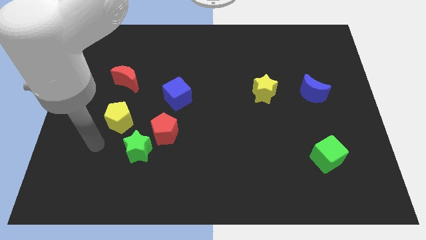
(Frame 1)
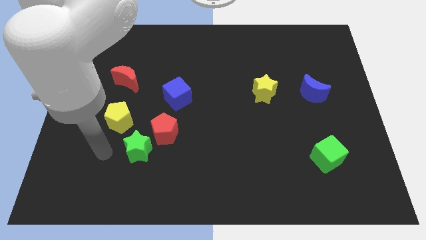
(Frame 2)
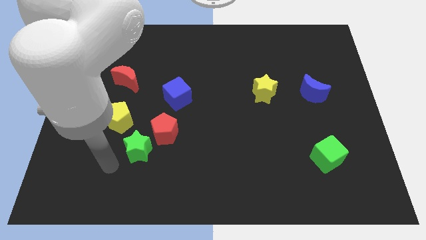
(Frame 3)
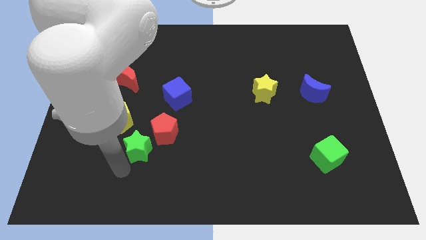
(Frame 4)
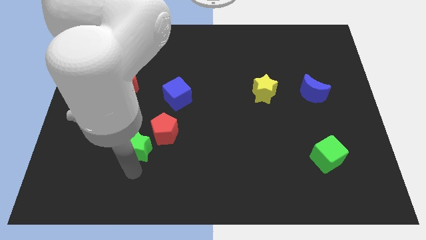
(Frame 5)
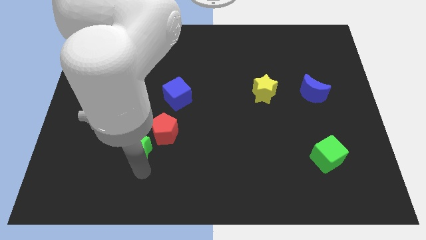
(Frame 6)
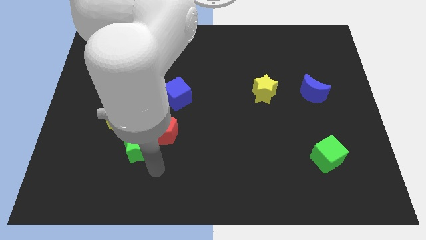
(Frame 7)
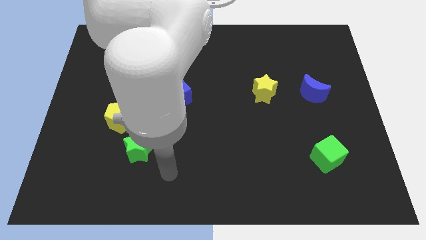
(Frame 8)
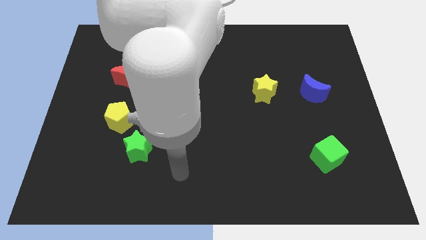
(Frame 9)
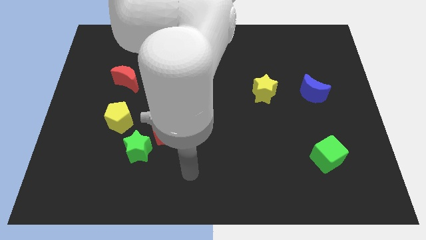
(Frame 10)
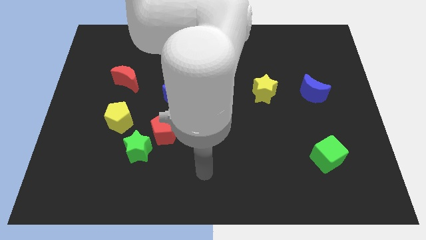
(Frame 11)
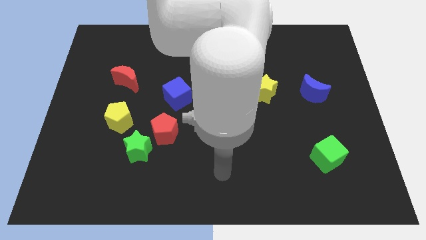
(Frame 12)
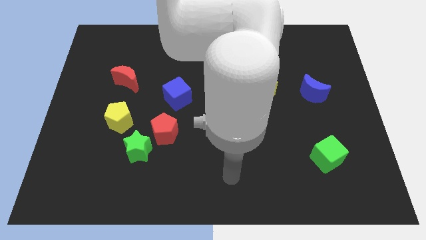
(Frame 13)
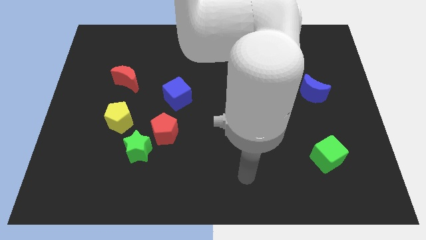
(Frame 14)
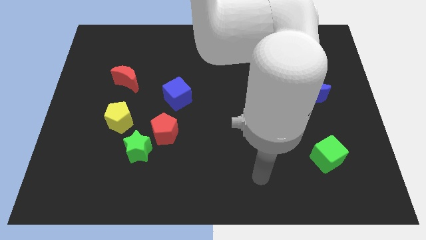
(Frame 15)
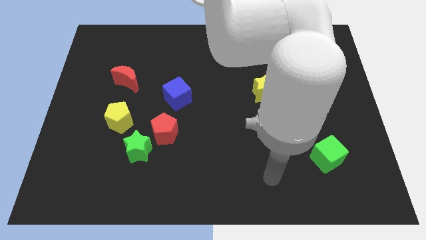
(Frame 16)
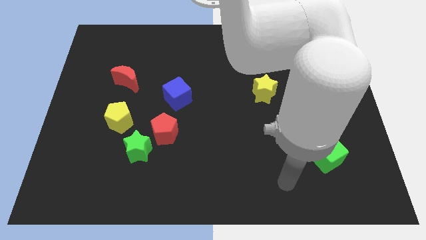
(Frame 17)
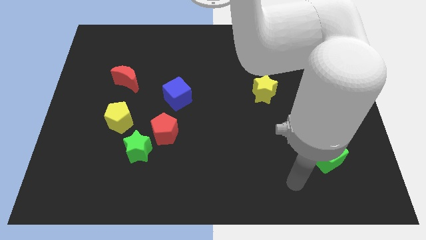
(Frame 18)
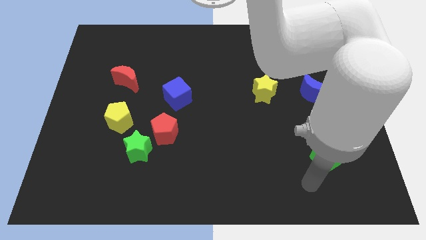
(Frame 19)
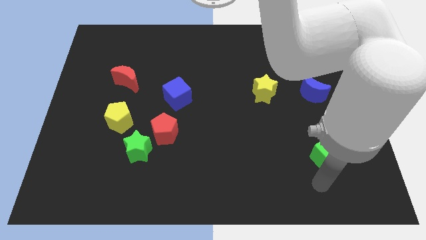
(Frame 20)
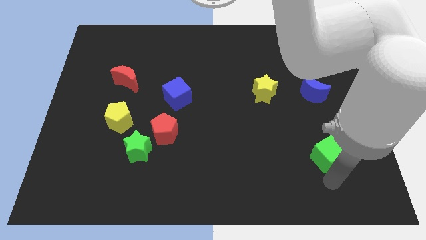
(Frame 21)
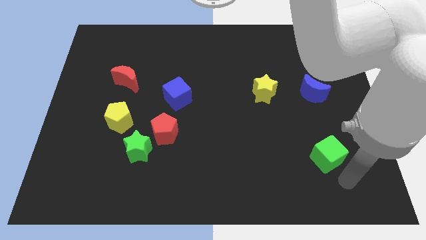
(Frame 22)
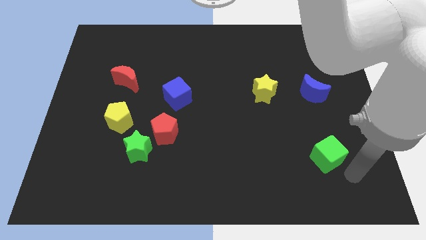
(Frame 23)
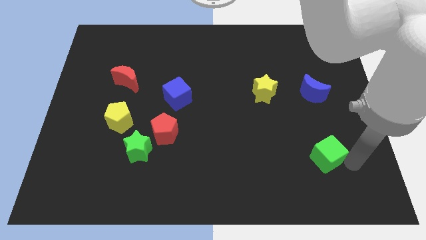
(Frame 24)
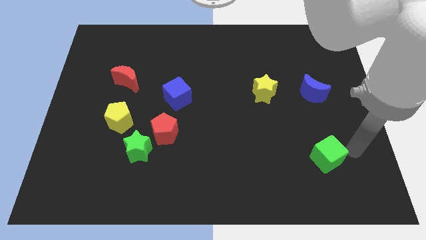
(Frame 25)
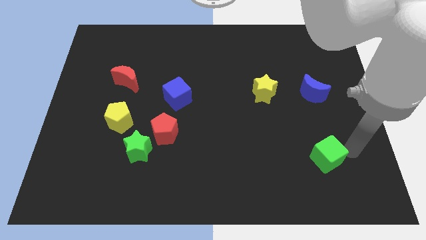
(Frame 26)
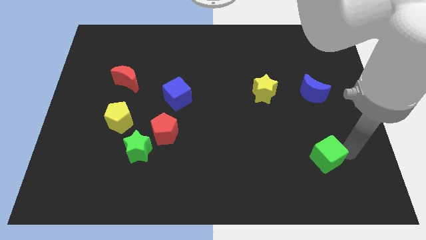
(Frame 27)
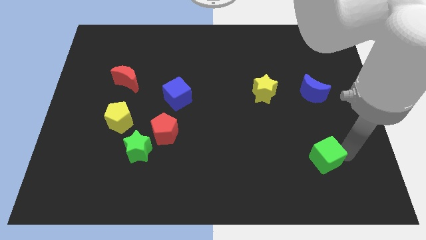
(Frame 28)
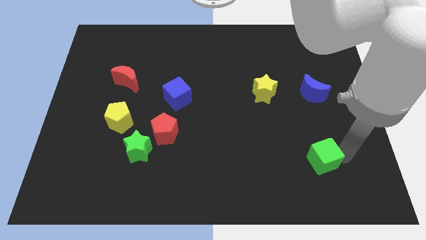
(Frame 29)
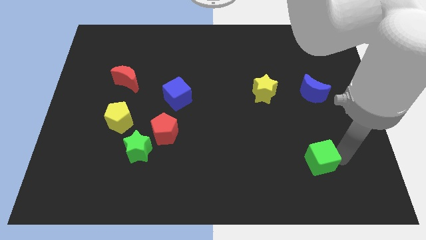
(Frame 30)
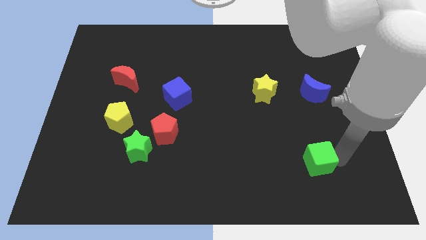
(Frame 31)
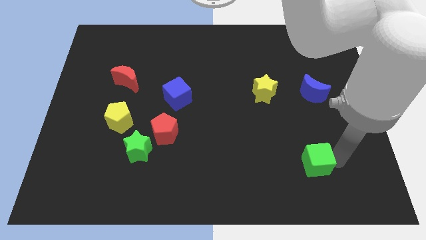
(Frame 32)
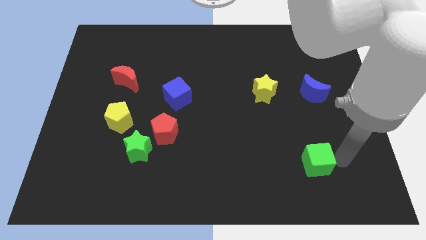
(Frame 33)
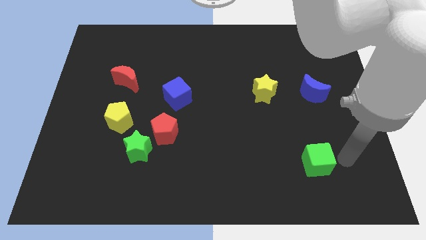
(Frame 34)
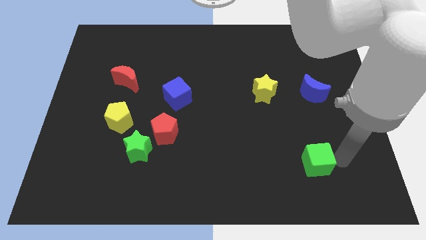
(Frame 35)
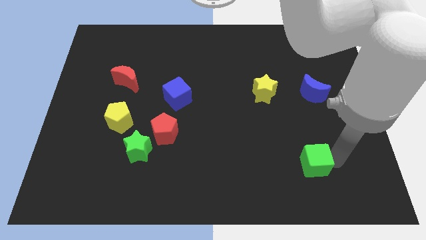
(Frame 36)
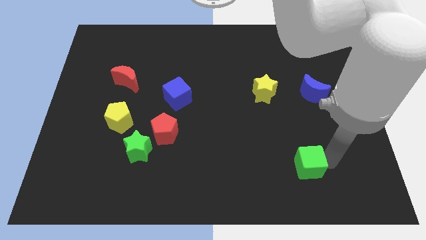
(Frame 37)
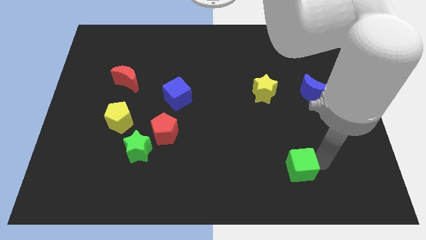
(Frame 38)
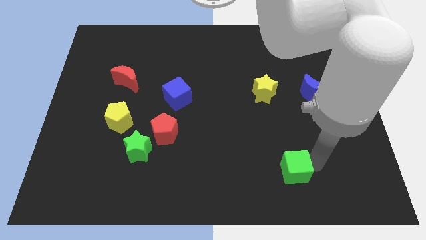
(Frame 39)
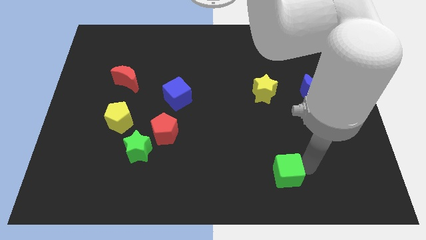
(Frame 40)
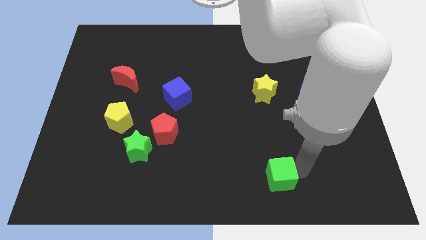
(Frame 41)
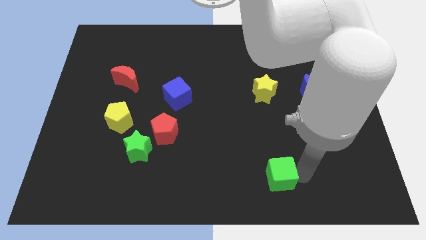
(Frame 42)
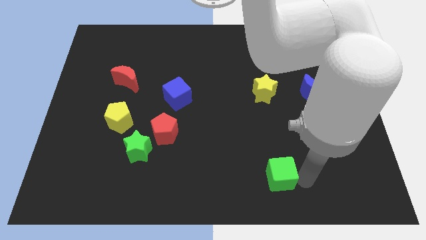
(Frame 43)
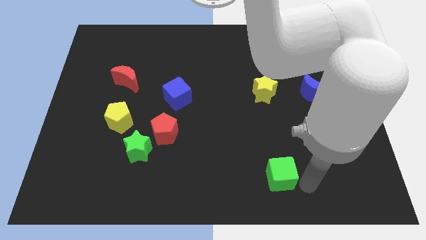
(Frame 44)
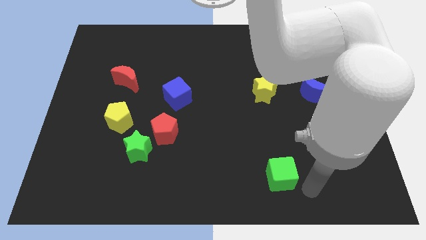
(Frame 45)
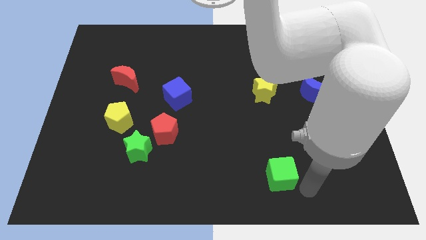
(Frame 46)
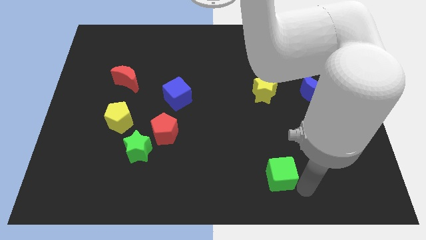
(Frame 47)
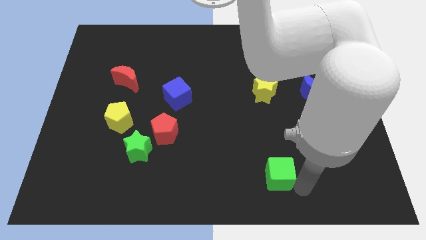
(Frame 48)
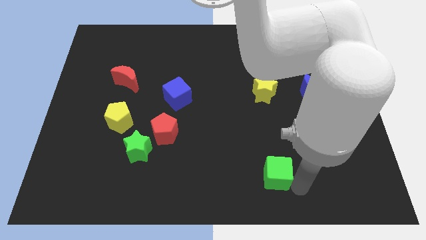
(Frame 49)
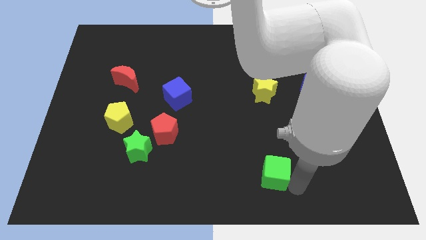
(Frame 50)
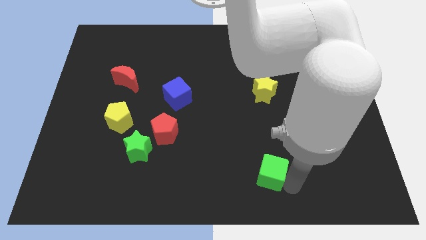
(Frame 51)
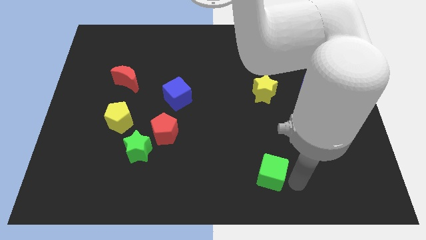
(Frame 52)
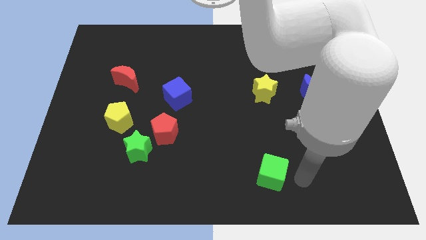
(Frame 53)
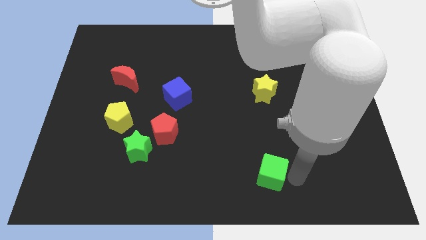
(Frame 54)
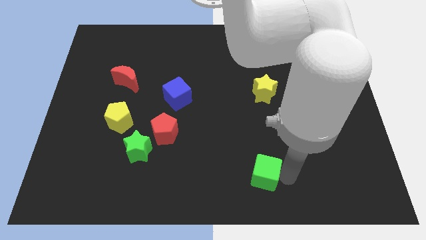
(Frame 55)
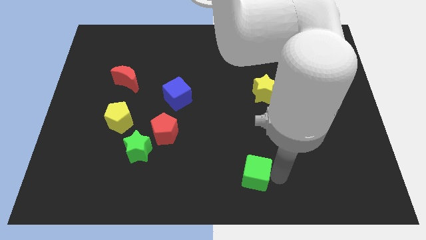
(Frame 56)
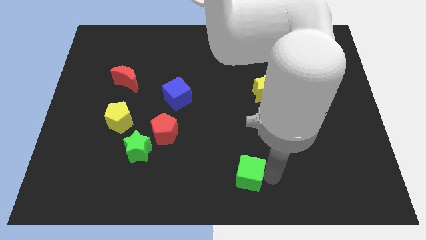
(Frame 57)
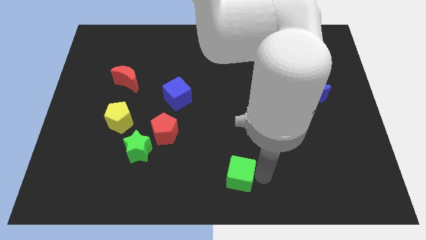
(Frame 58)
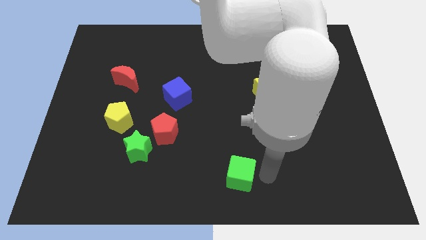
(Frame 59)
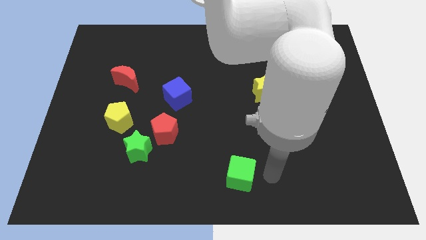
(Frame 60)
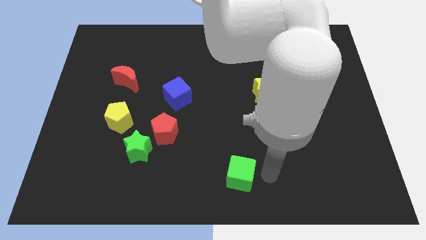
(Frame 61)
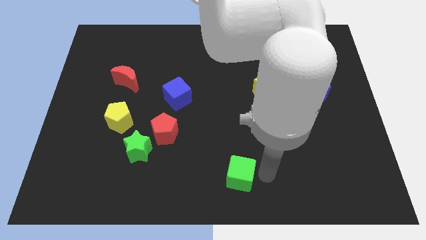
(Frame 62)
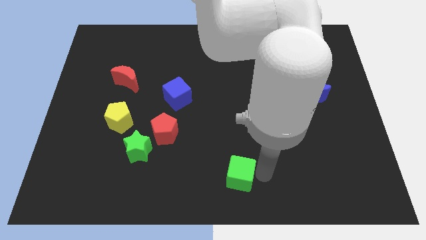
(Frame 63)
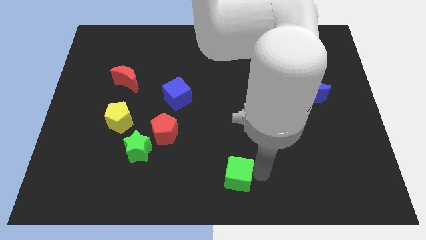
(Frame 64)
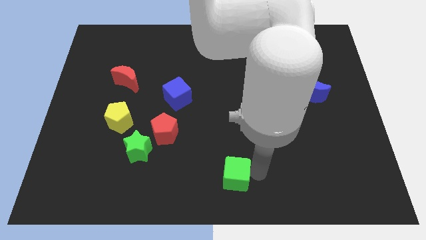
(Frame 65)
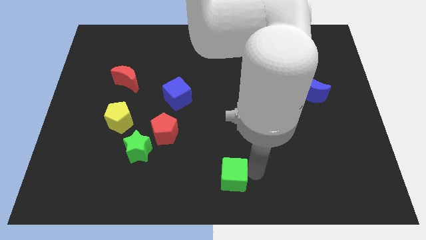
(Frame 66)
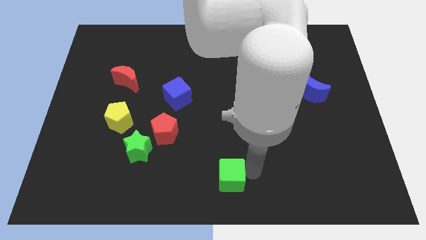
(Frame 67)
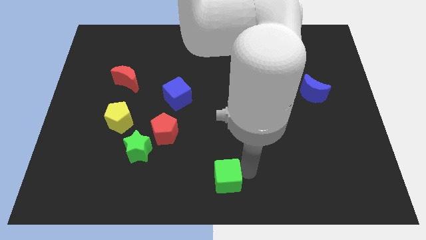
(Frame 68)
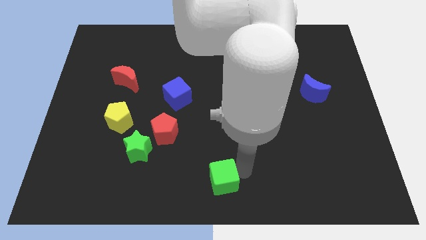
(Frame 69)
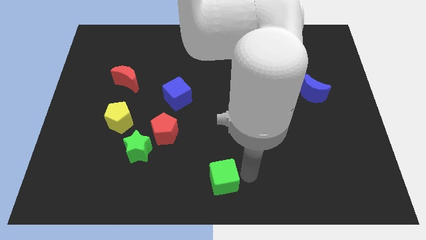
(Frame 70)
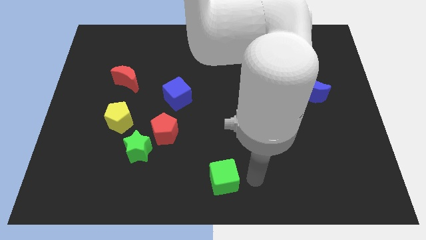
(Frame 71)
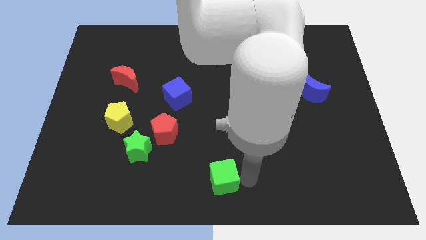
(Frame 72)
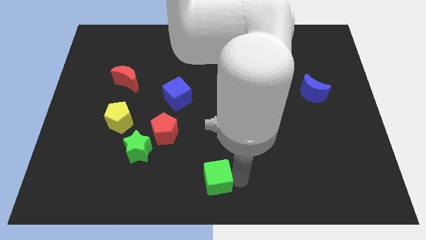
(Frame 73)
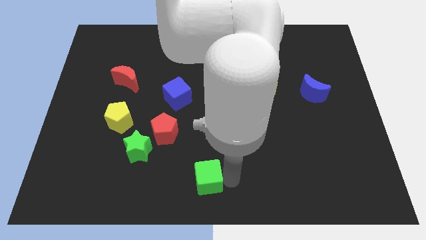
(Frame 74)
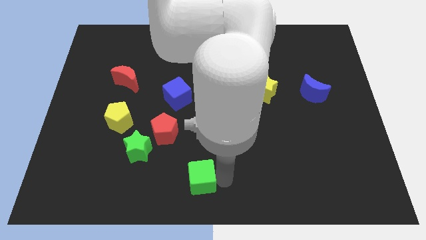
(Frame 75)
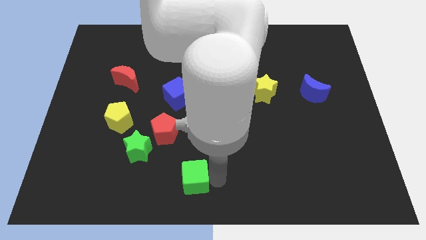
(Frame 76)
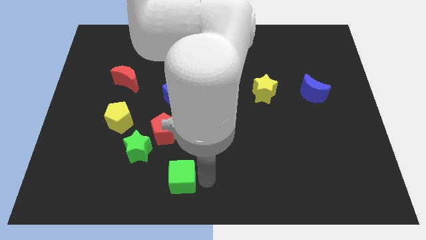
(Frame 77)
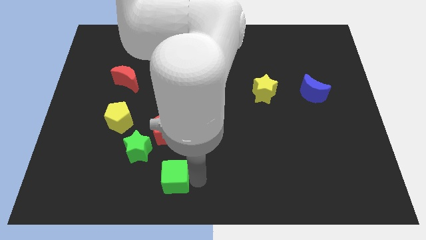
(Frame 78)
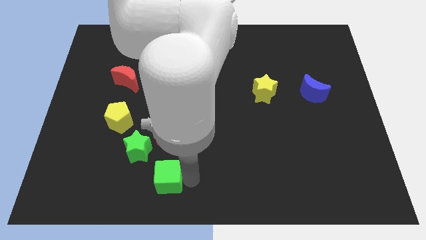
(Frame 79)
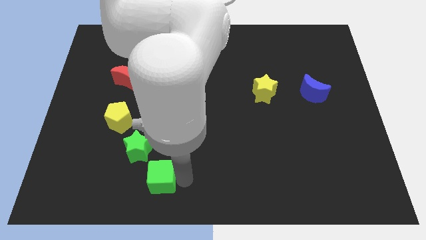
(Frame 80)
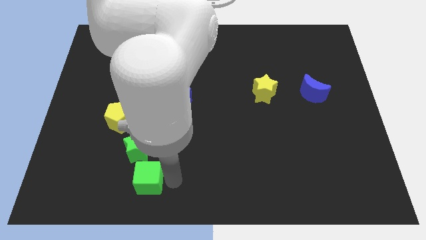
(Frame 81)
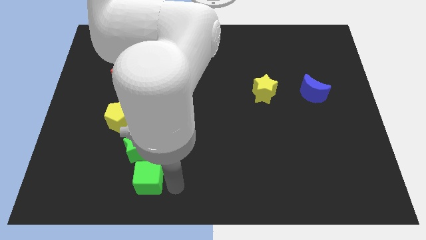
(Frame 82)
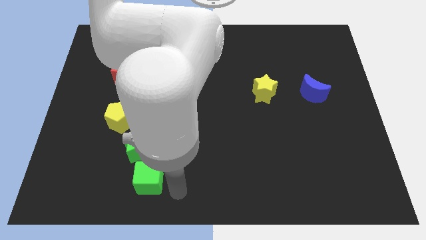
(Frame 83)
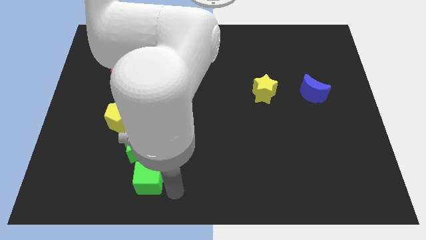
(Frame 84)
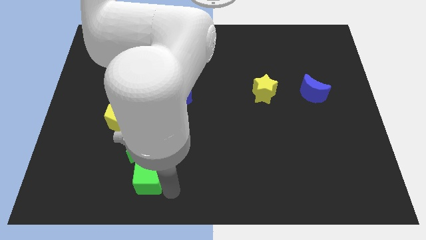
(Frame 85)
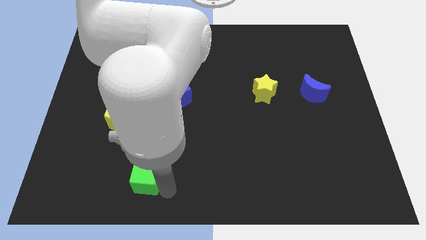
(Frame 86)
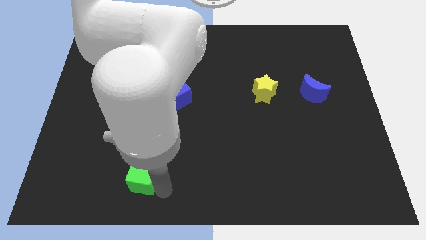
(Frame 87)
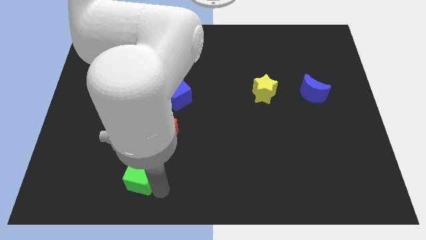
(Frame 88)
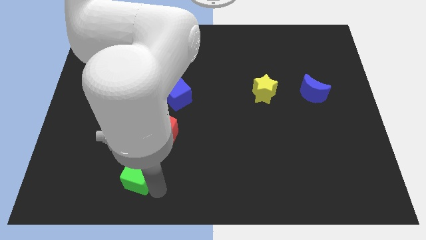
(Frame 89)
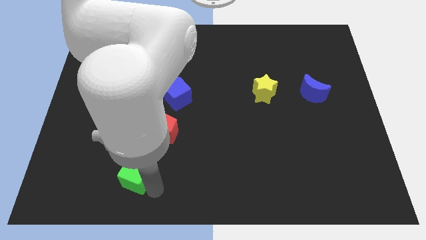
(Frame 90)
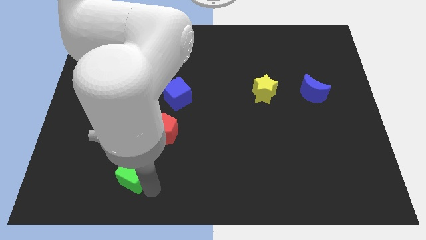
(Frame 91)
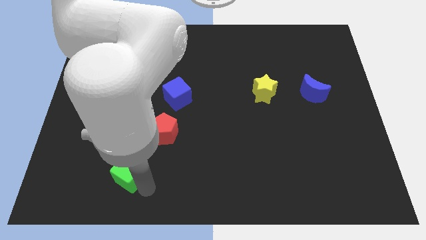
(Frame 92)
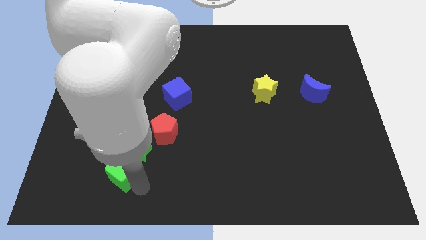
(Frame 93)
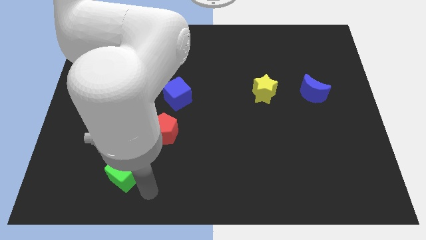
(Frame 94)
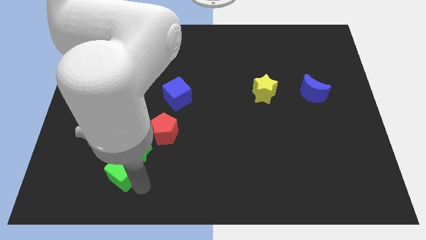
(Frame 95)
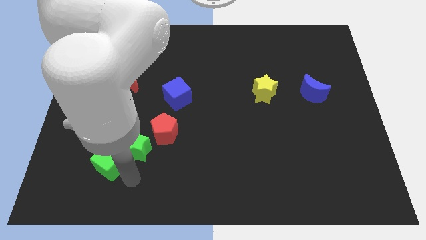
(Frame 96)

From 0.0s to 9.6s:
move the green cube to the left side of the green star
